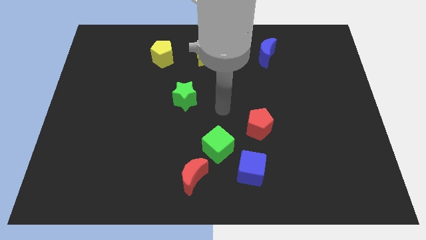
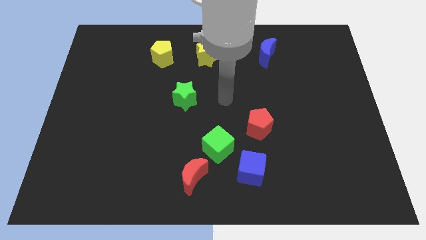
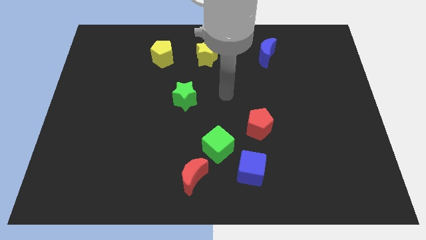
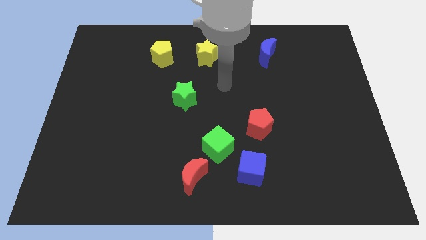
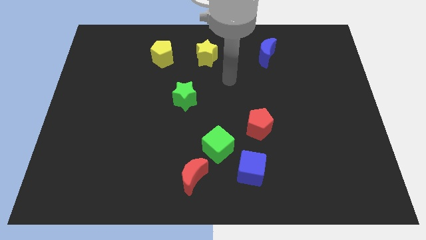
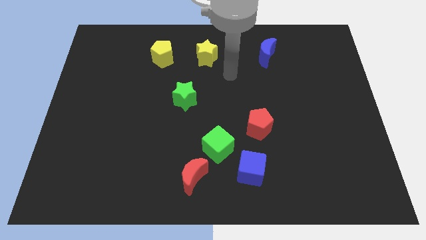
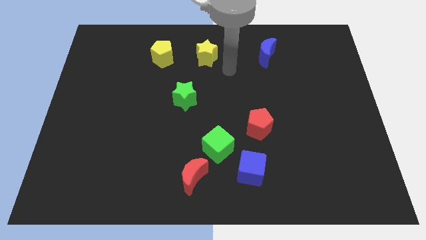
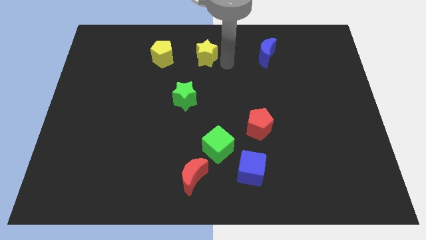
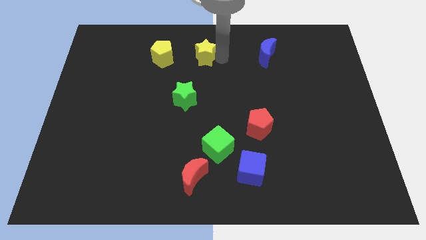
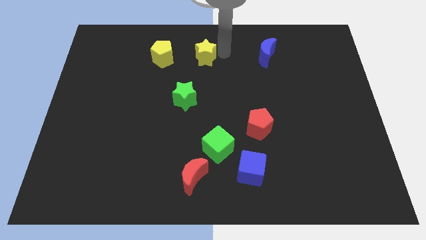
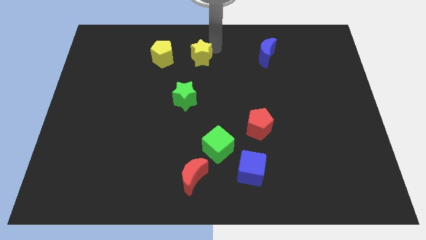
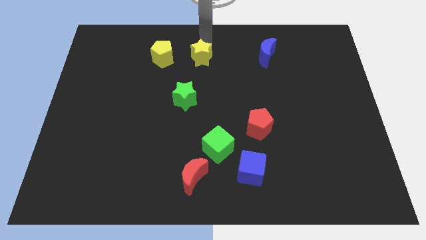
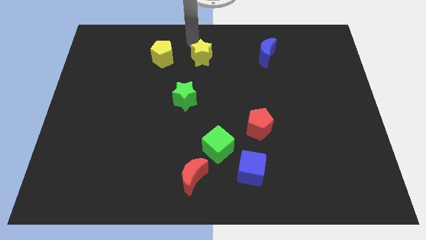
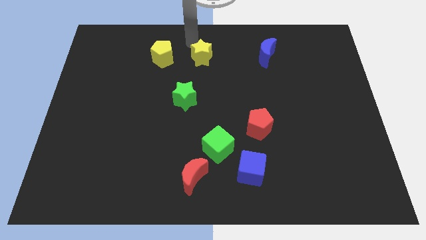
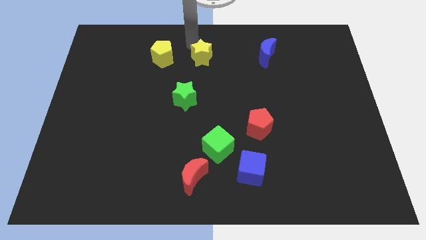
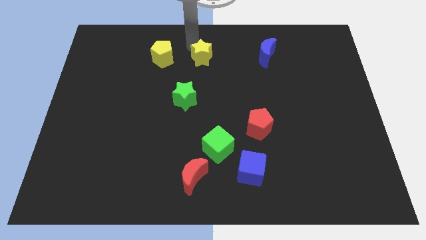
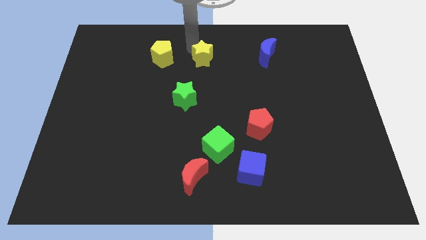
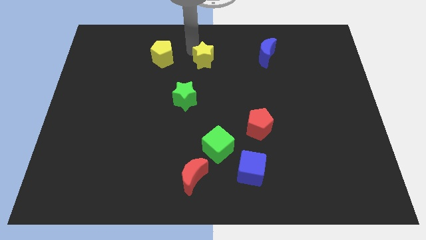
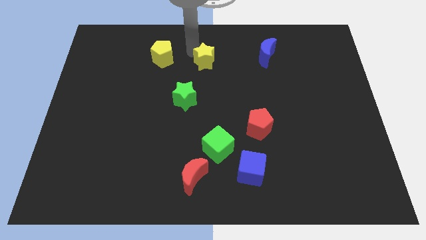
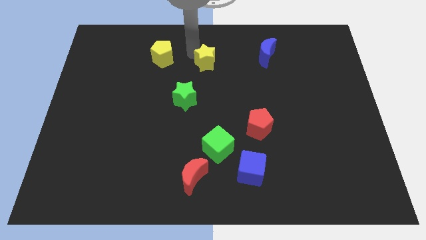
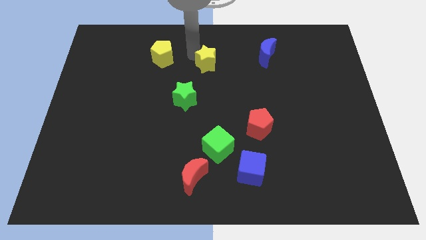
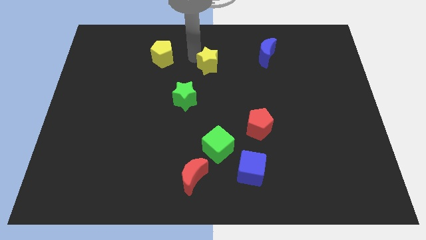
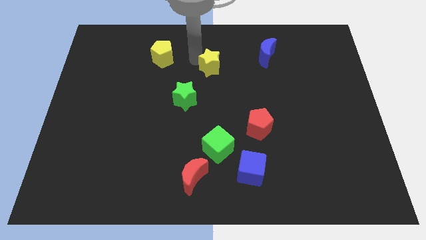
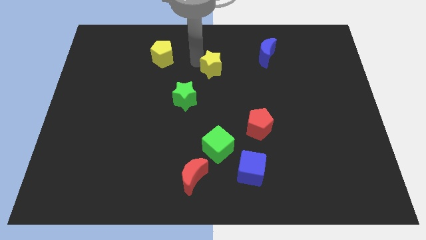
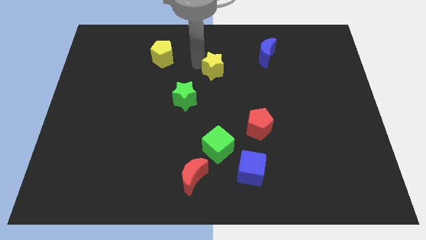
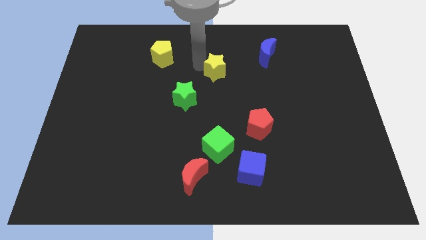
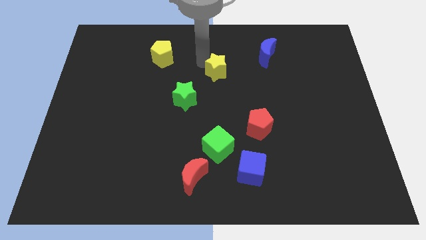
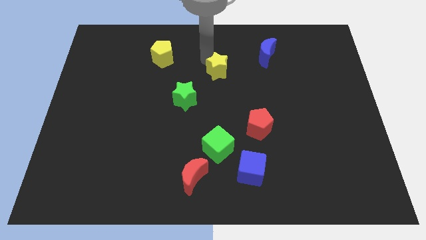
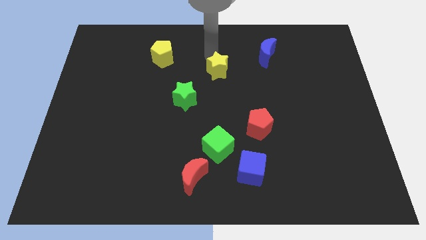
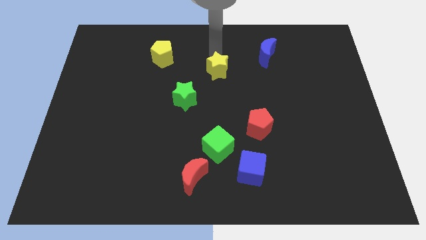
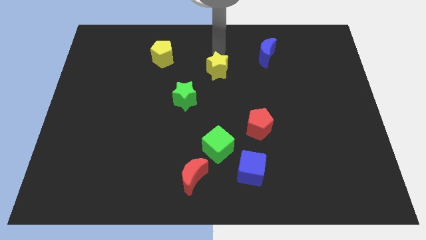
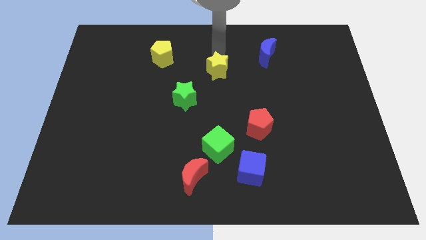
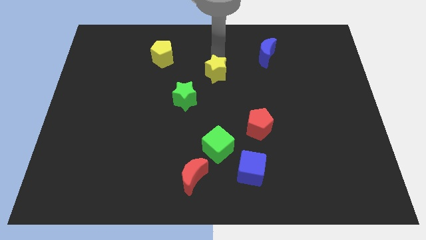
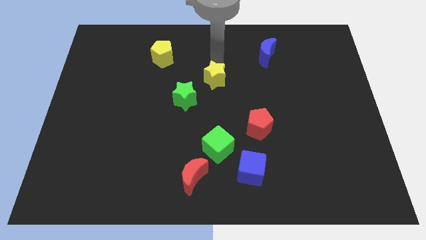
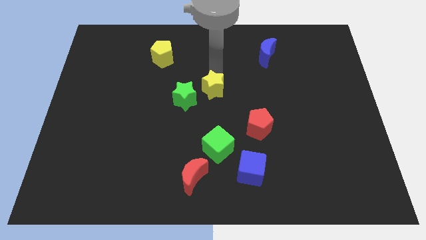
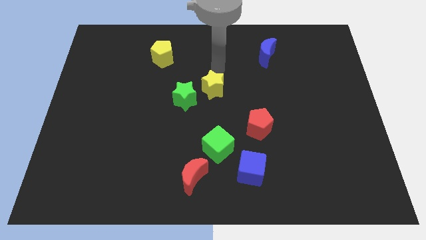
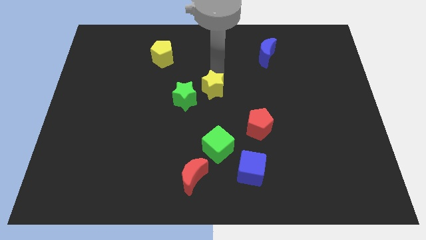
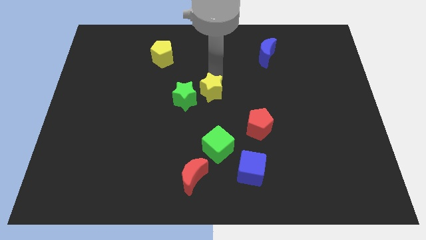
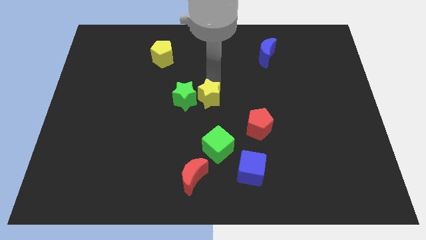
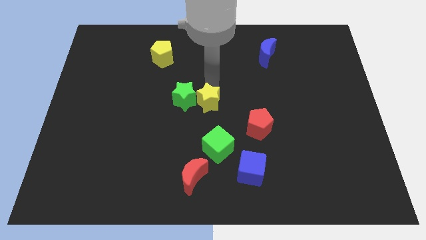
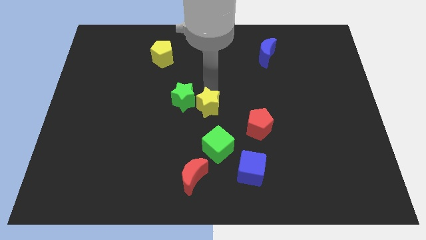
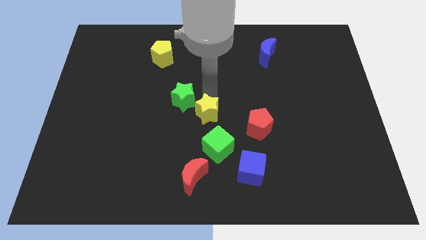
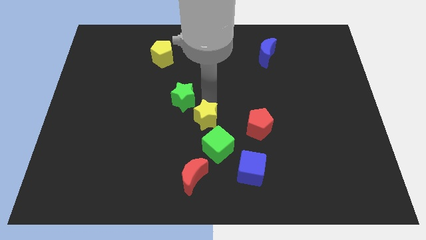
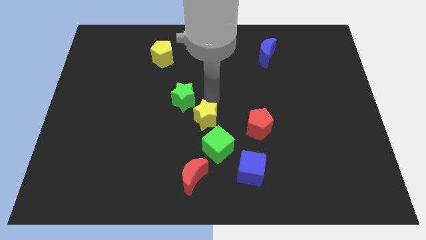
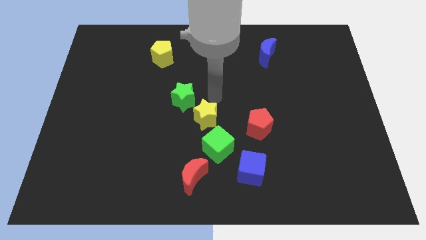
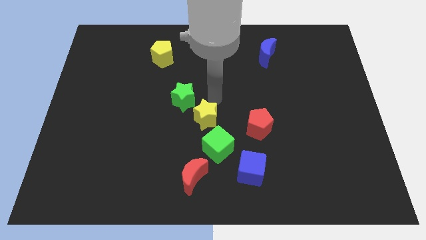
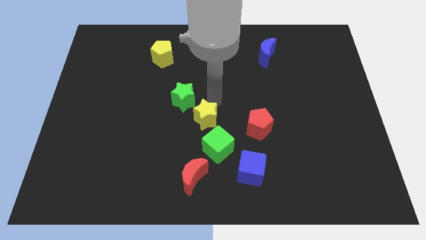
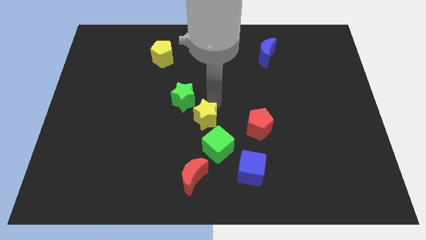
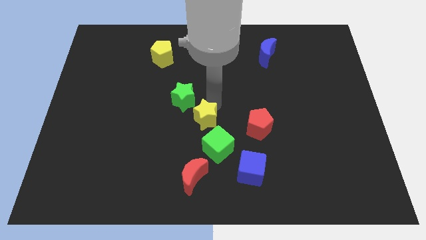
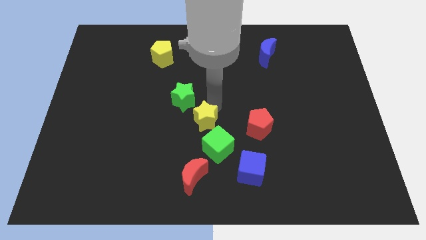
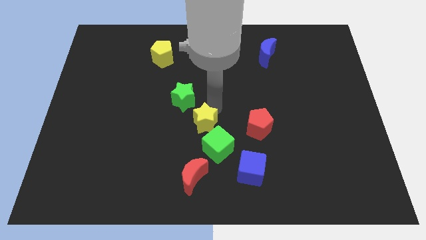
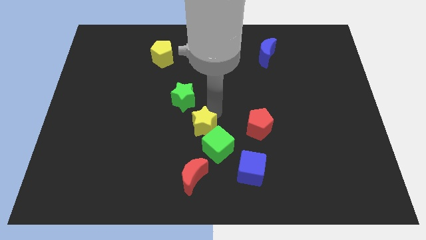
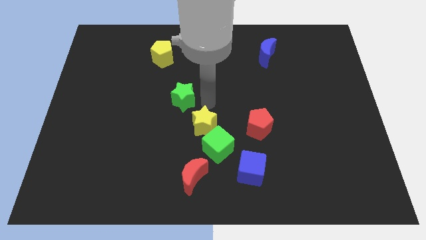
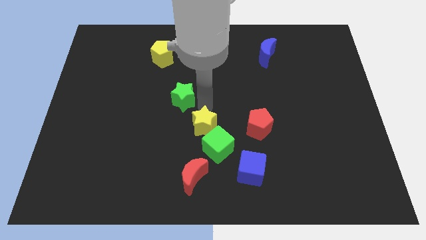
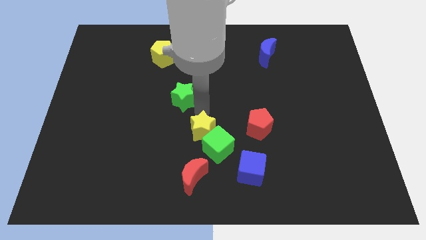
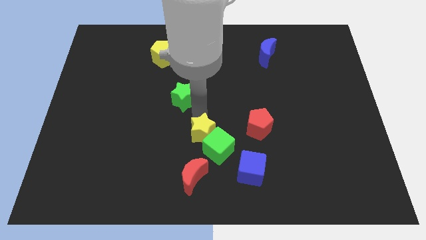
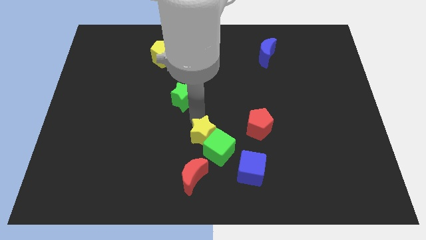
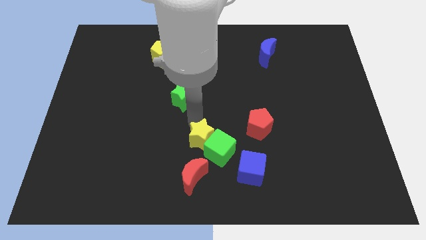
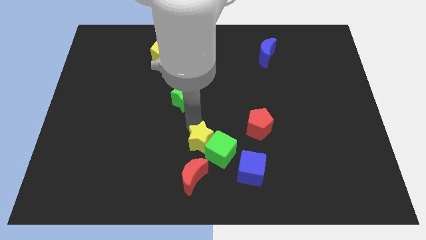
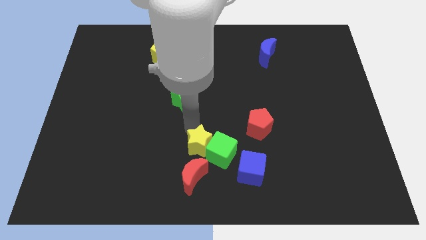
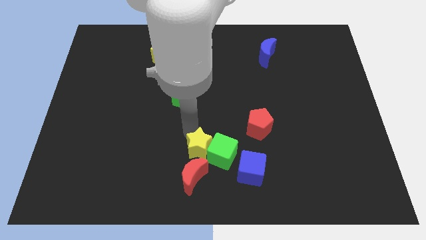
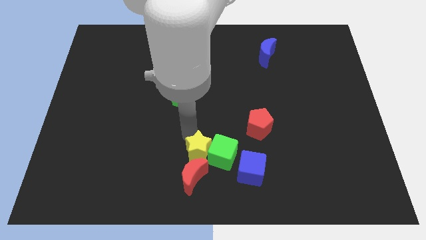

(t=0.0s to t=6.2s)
push the yellow star to the red moon

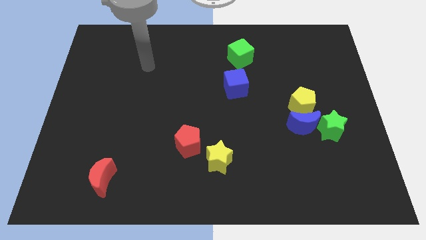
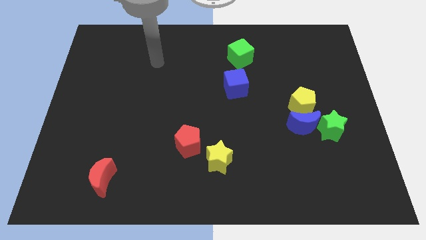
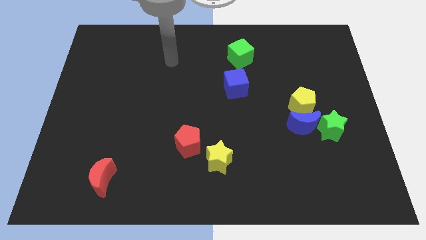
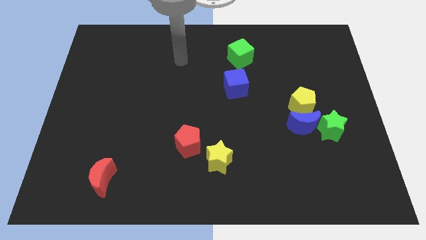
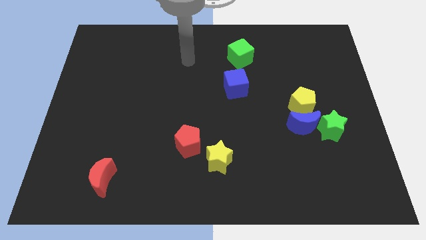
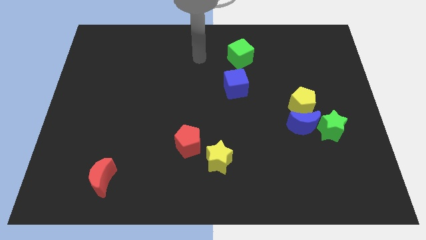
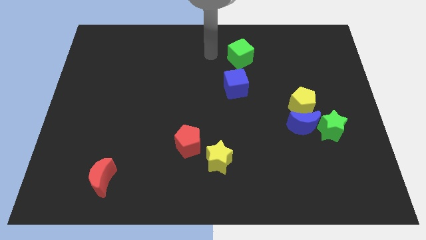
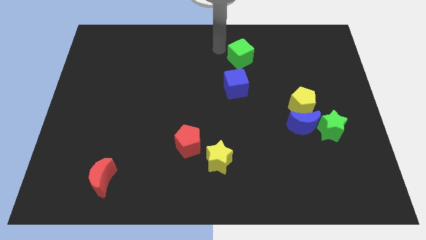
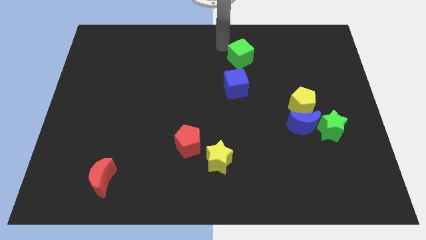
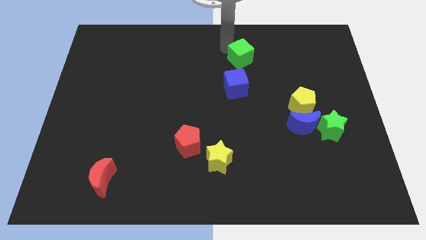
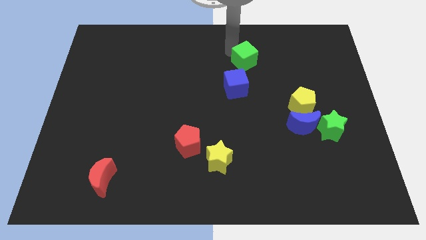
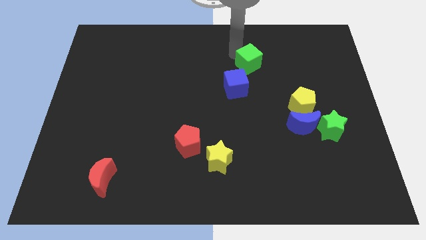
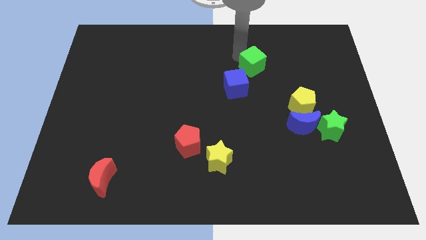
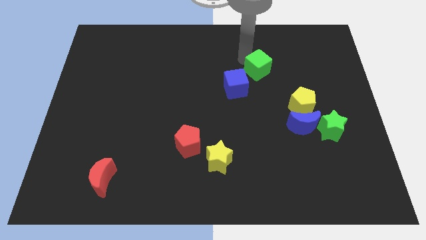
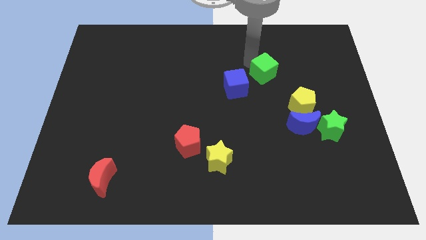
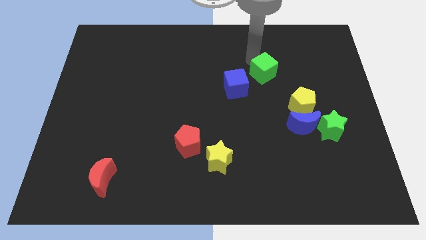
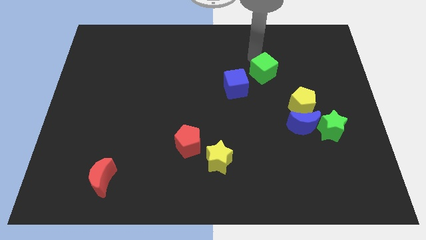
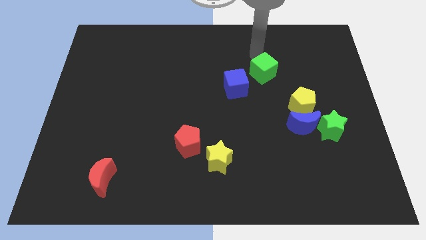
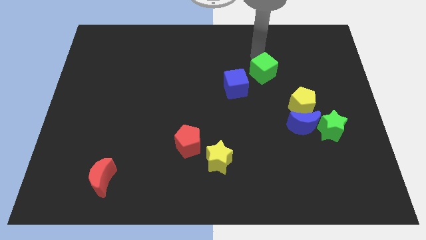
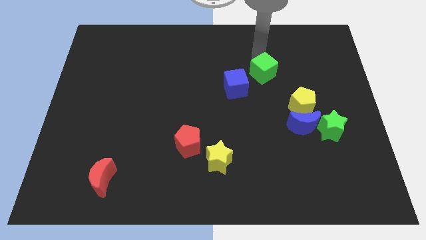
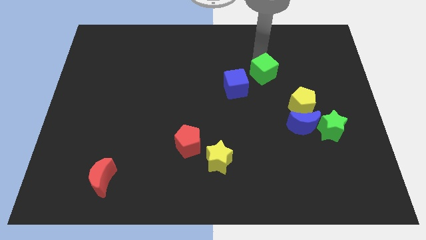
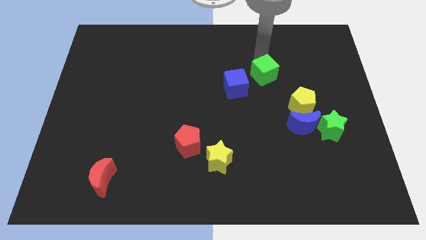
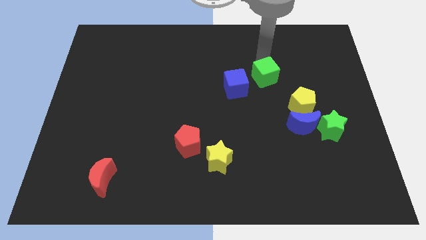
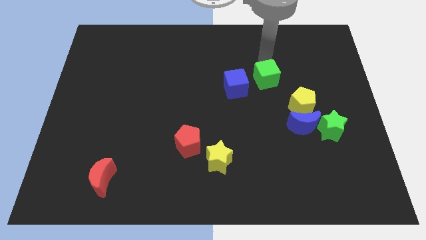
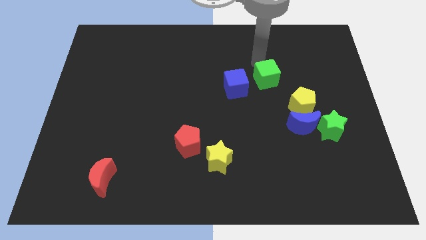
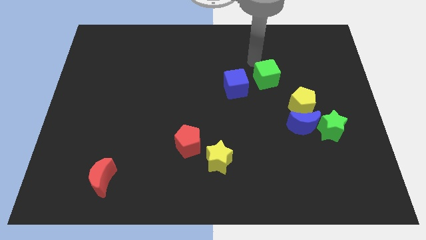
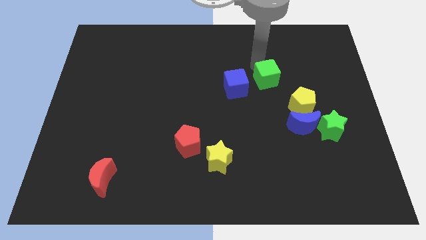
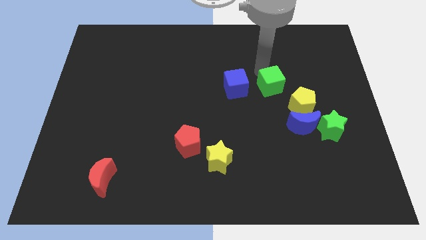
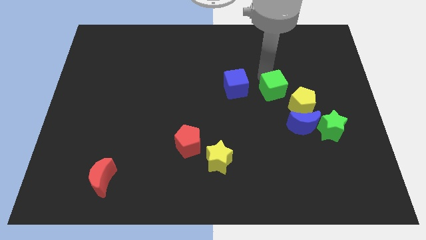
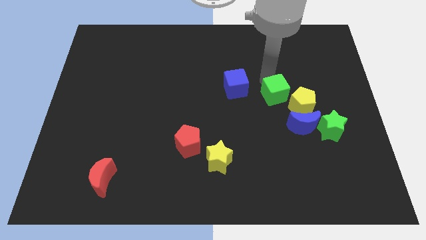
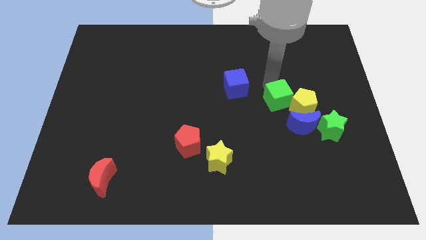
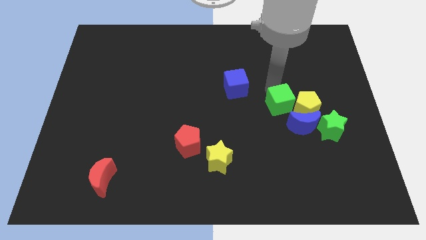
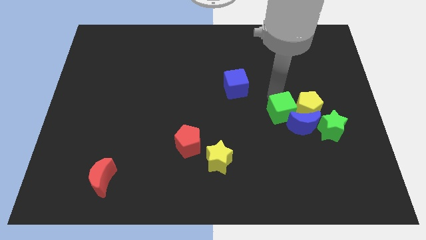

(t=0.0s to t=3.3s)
push the green cube to the blue moon
